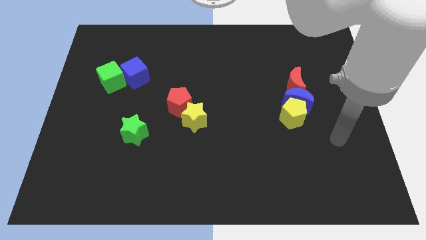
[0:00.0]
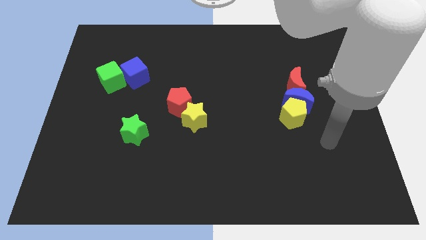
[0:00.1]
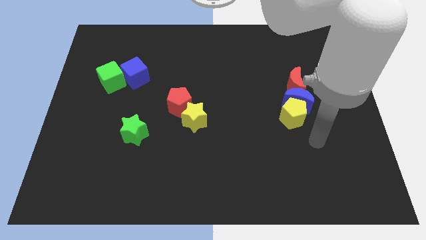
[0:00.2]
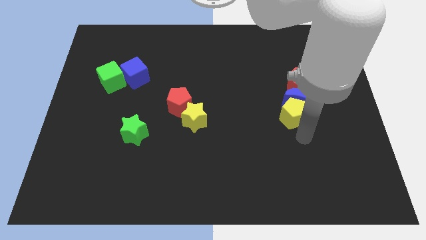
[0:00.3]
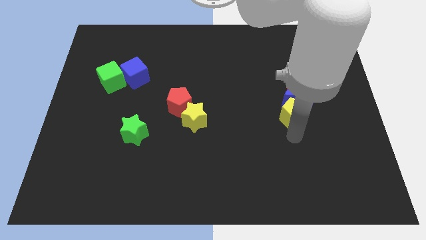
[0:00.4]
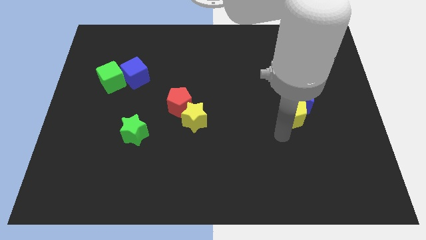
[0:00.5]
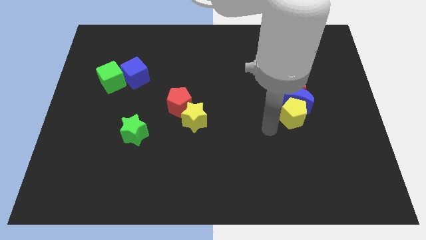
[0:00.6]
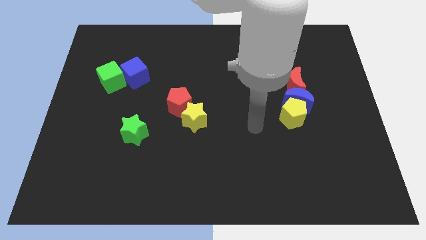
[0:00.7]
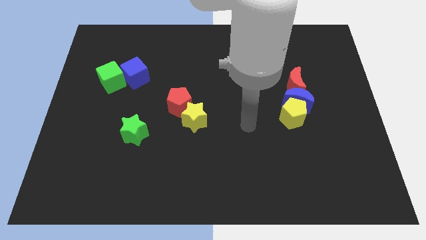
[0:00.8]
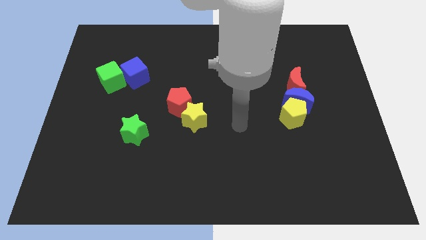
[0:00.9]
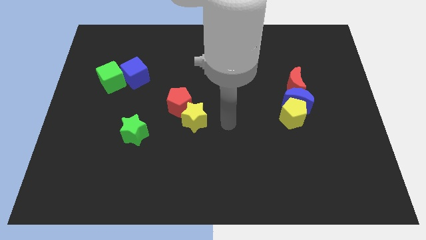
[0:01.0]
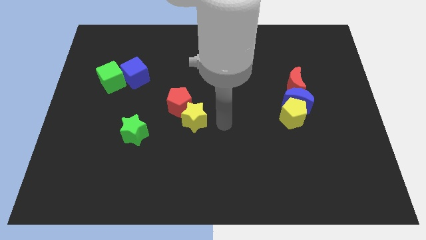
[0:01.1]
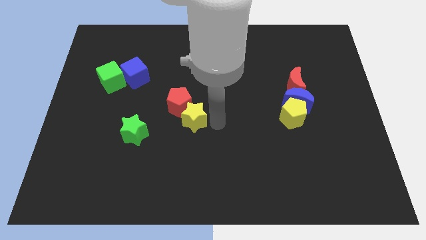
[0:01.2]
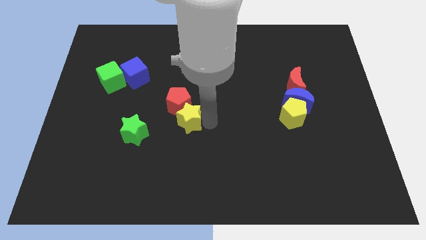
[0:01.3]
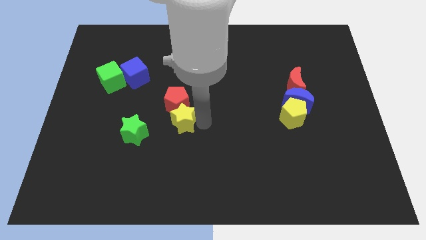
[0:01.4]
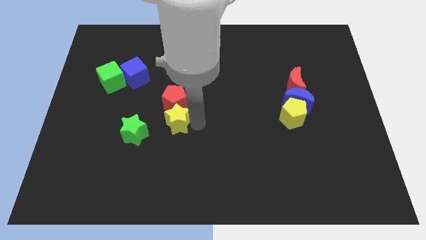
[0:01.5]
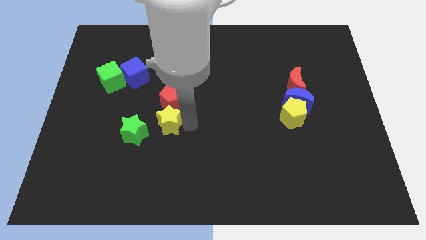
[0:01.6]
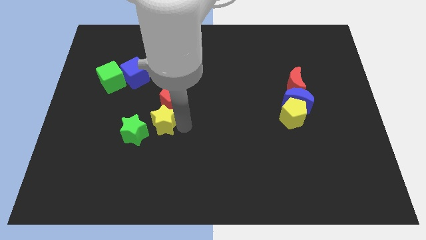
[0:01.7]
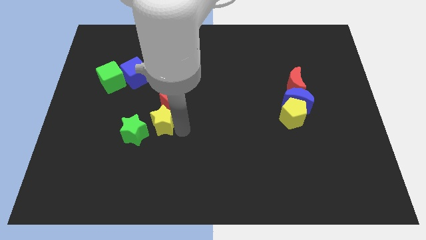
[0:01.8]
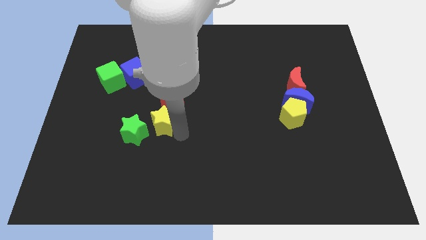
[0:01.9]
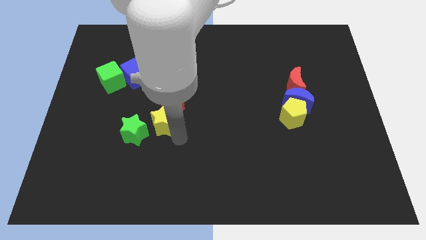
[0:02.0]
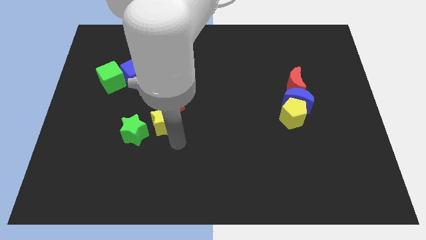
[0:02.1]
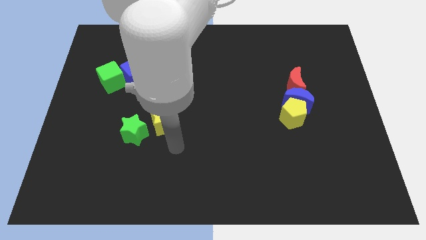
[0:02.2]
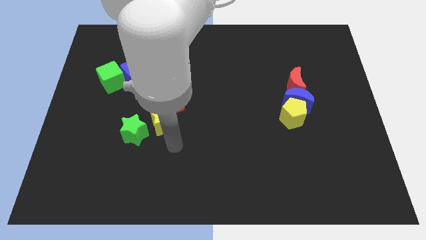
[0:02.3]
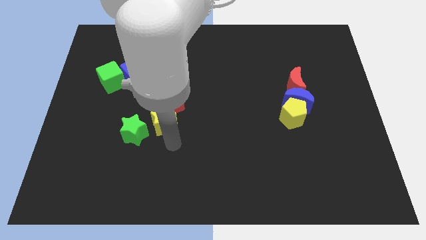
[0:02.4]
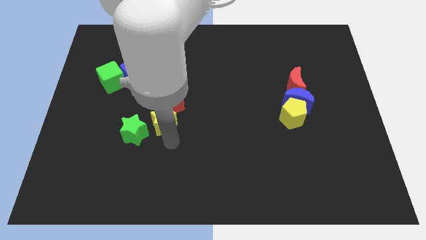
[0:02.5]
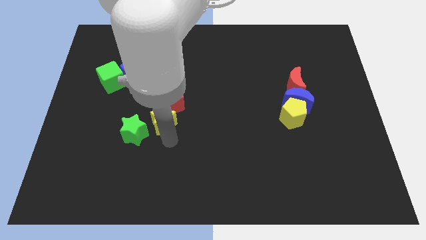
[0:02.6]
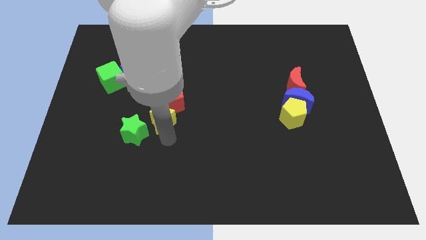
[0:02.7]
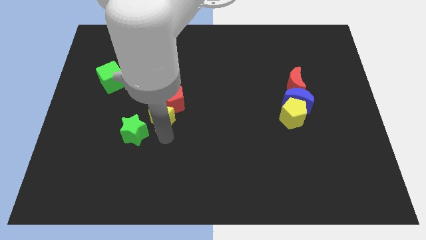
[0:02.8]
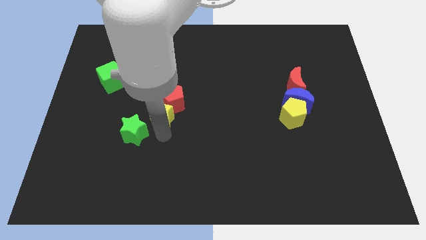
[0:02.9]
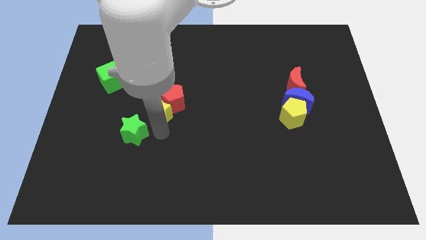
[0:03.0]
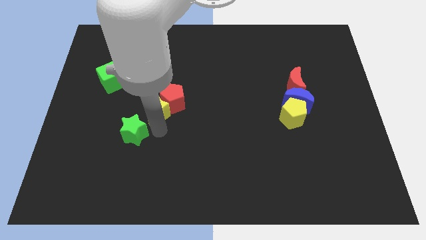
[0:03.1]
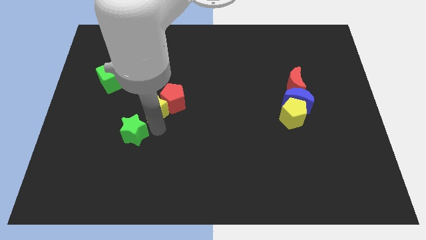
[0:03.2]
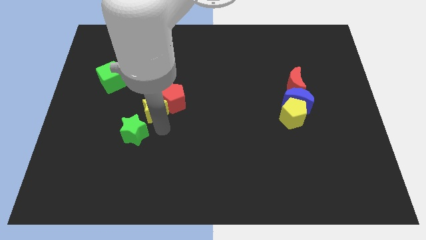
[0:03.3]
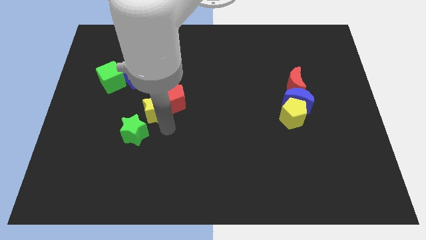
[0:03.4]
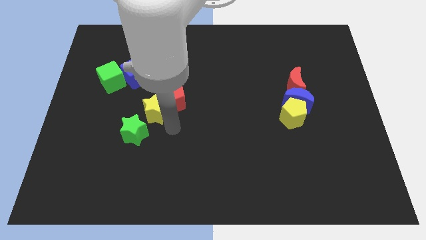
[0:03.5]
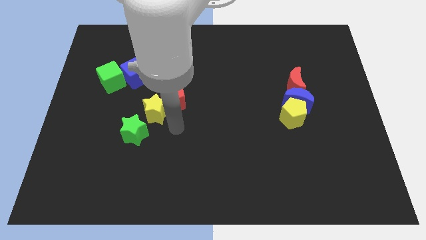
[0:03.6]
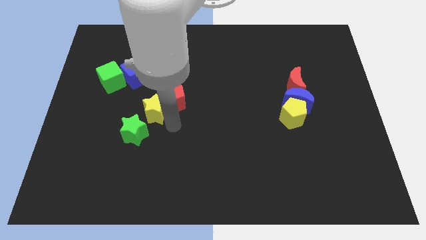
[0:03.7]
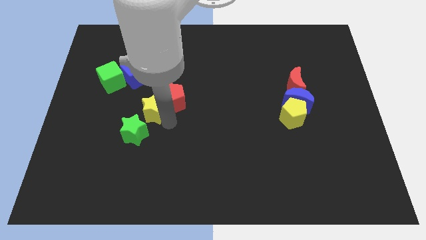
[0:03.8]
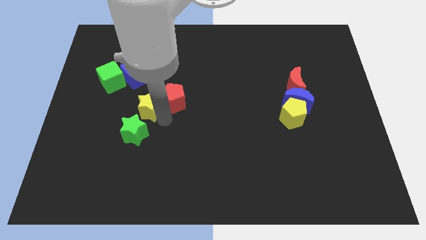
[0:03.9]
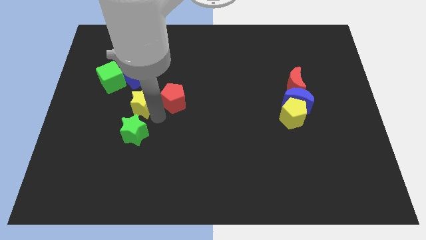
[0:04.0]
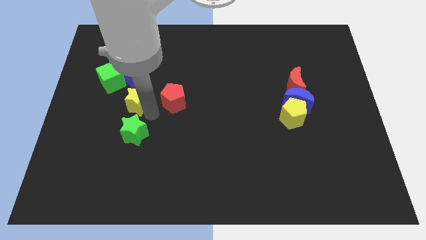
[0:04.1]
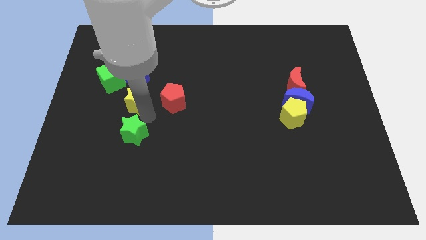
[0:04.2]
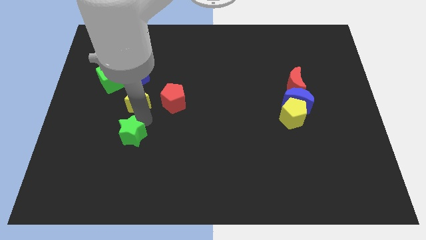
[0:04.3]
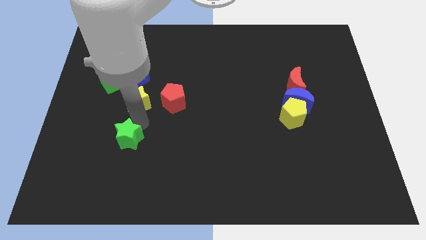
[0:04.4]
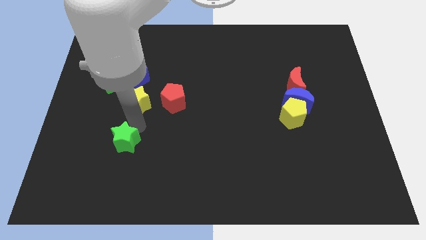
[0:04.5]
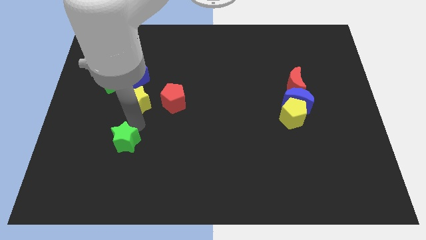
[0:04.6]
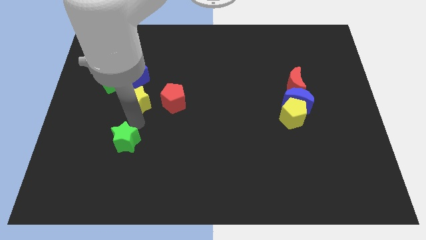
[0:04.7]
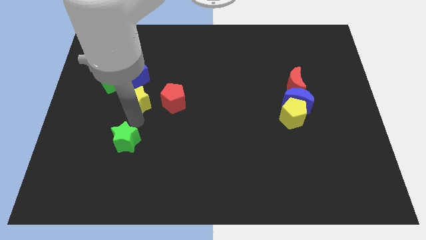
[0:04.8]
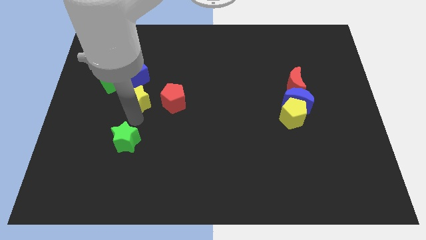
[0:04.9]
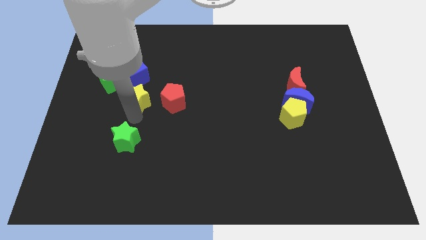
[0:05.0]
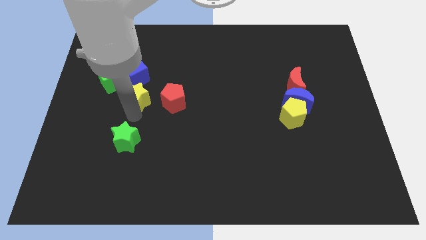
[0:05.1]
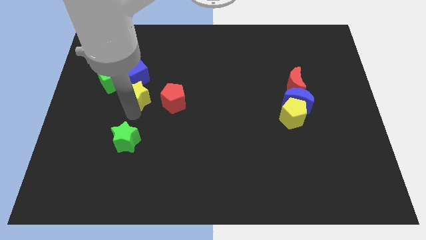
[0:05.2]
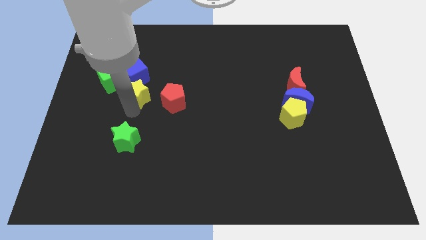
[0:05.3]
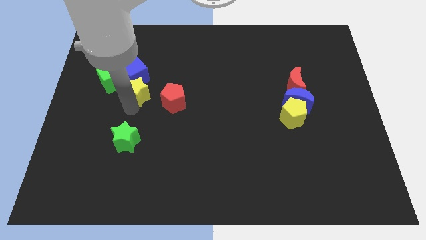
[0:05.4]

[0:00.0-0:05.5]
slide the yellow star to the blue cube

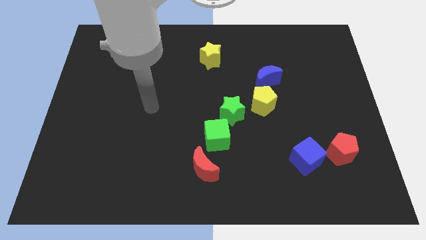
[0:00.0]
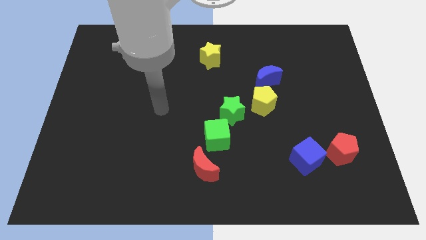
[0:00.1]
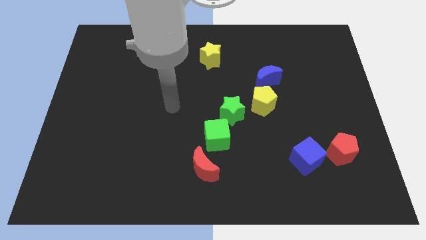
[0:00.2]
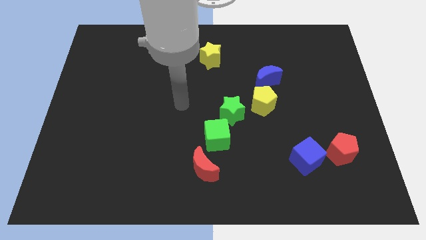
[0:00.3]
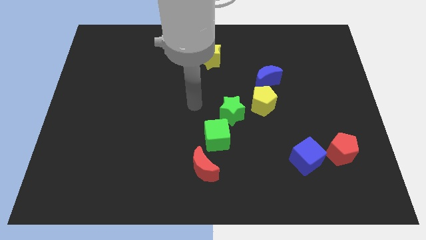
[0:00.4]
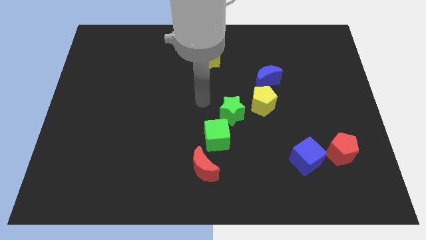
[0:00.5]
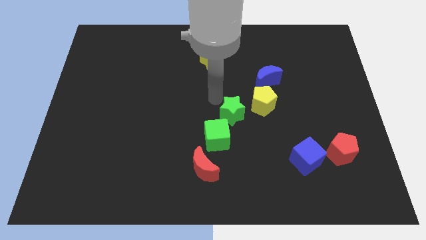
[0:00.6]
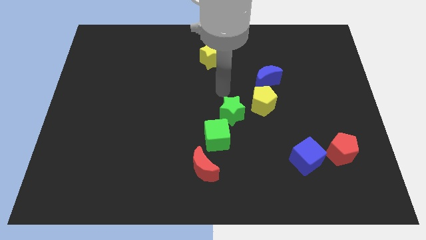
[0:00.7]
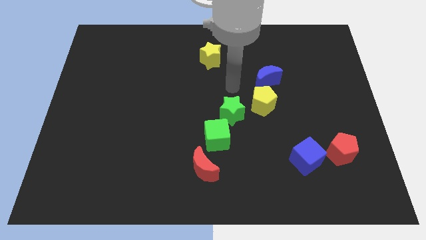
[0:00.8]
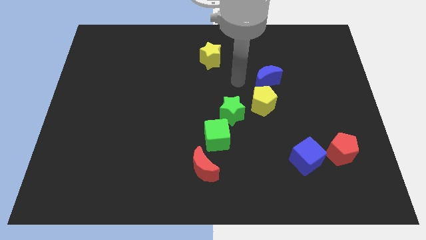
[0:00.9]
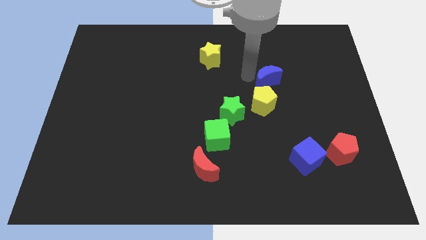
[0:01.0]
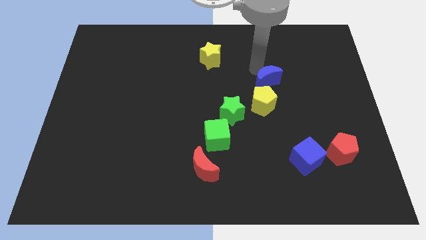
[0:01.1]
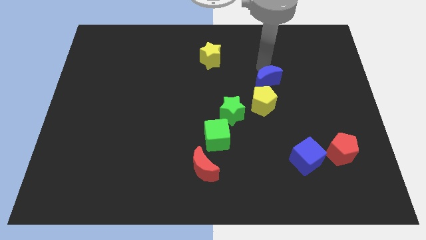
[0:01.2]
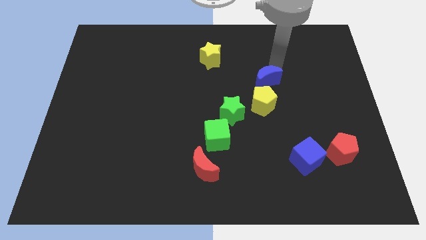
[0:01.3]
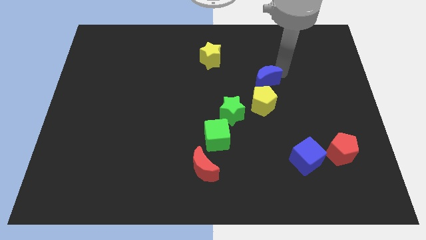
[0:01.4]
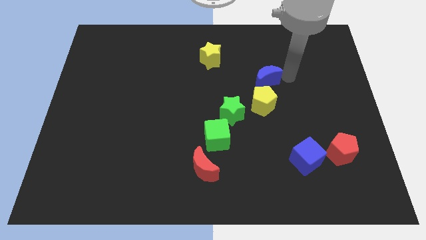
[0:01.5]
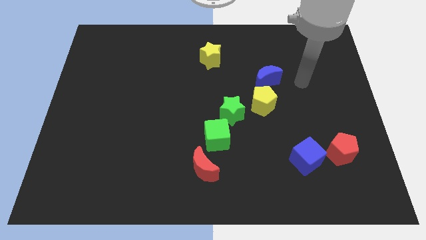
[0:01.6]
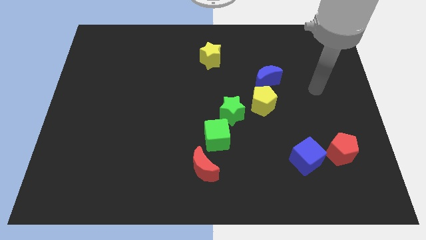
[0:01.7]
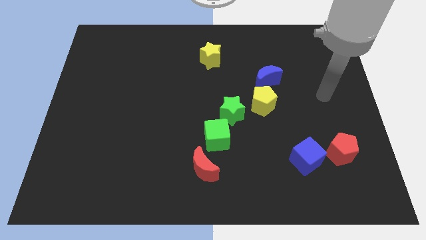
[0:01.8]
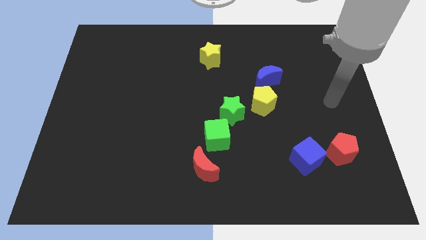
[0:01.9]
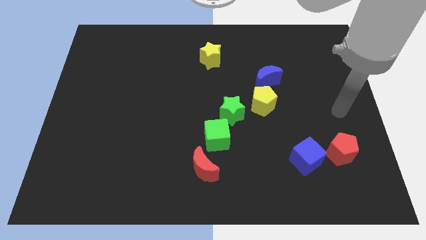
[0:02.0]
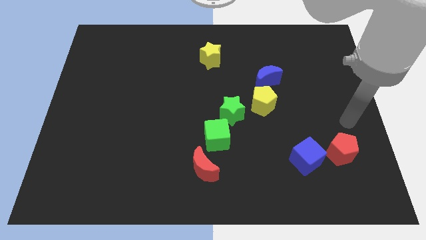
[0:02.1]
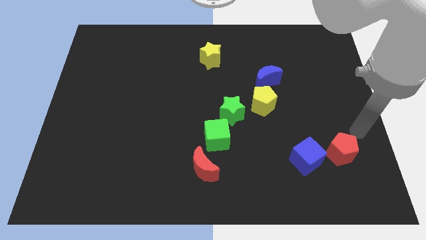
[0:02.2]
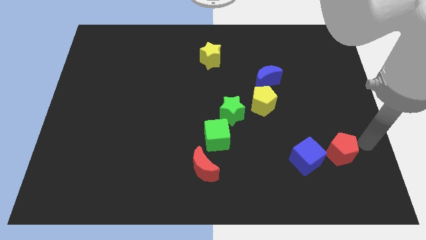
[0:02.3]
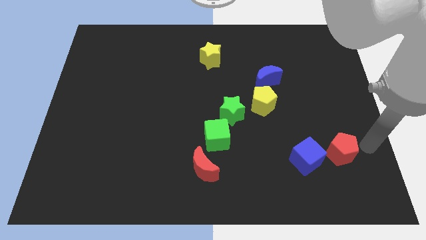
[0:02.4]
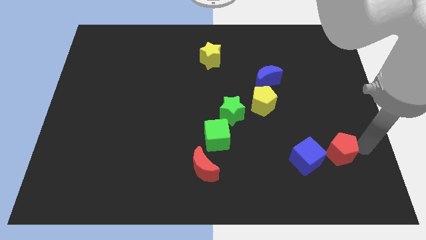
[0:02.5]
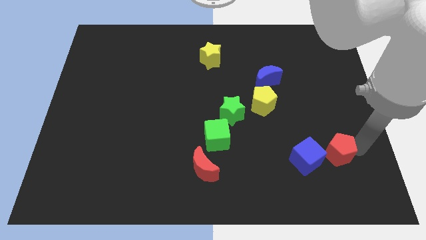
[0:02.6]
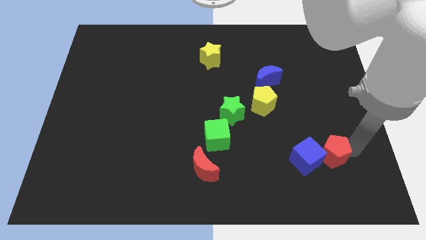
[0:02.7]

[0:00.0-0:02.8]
move the red pentagon next to the blue cube
